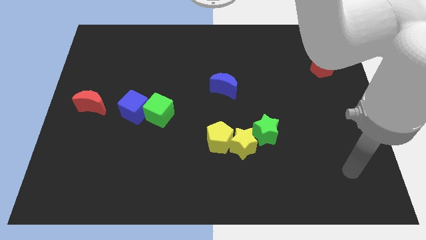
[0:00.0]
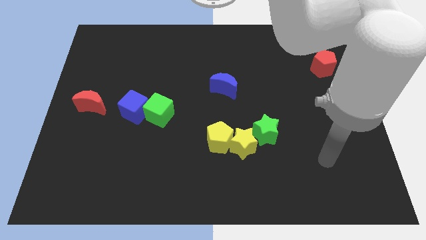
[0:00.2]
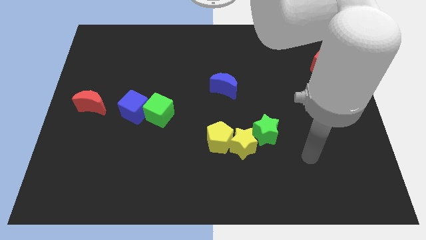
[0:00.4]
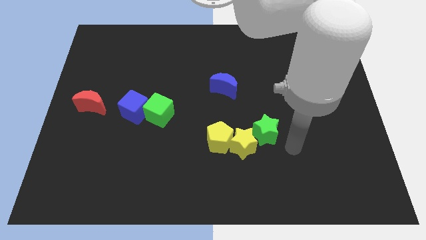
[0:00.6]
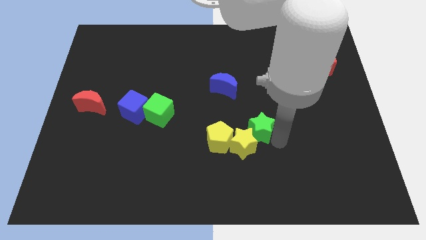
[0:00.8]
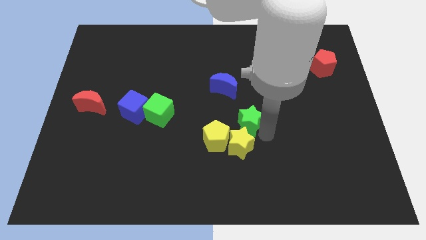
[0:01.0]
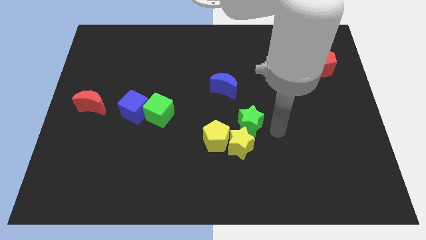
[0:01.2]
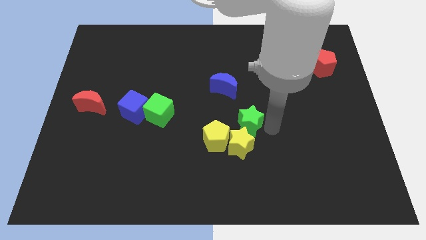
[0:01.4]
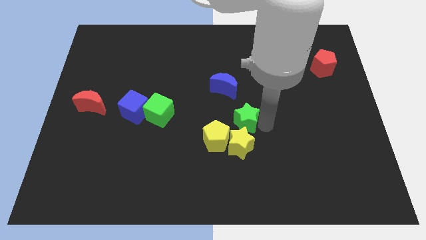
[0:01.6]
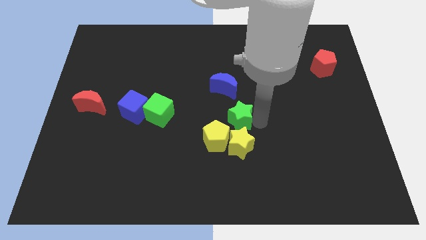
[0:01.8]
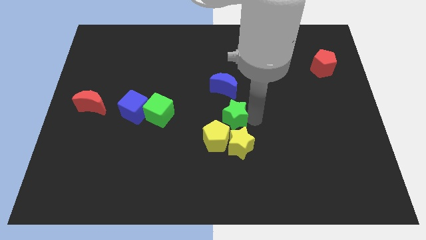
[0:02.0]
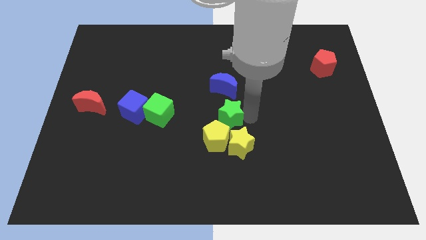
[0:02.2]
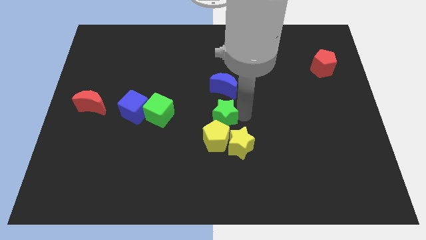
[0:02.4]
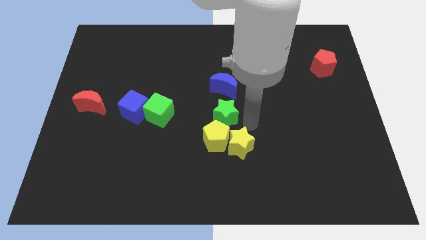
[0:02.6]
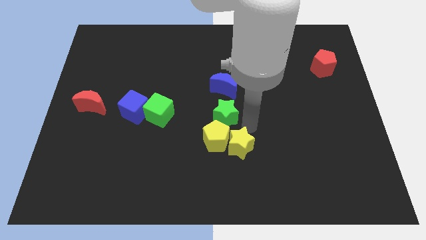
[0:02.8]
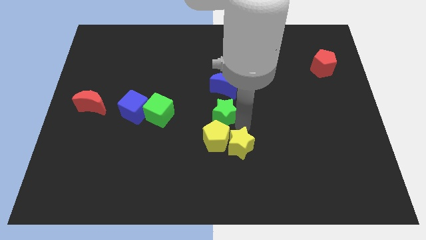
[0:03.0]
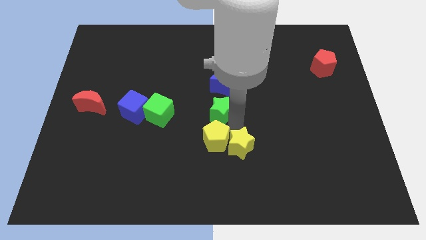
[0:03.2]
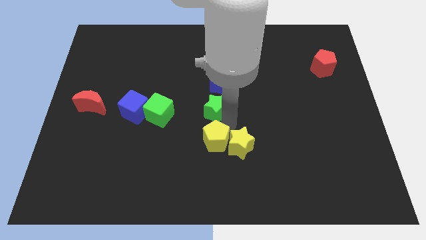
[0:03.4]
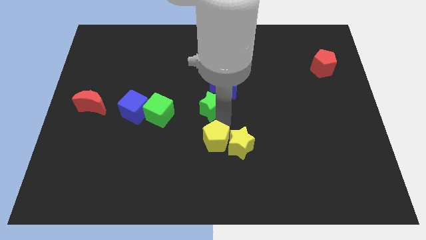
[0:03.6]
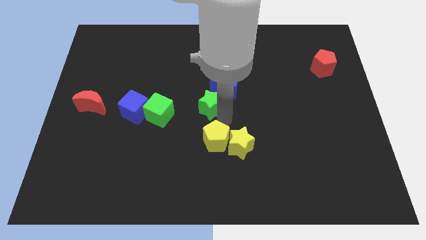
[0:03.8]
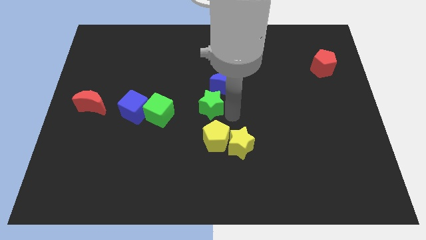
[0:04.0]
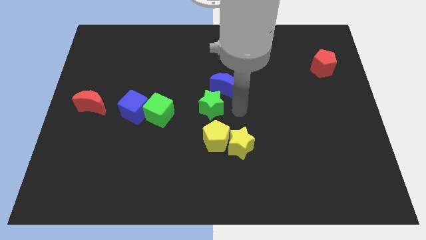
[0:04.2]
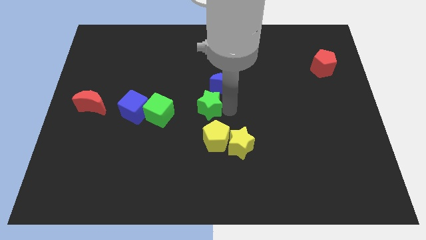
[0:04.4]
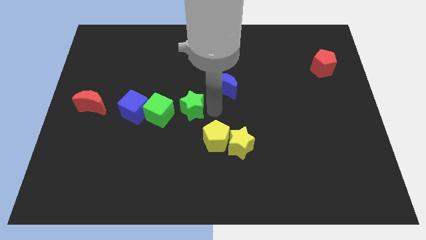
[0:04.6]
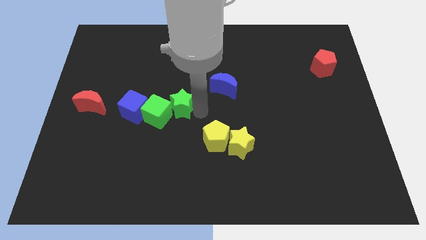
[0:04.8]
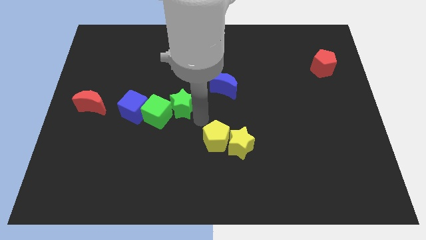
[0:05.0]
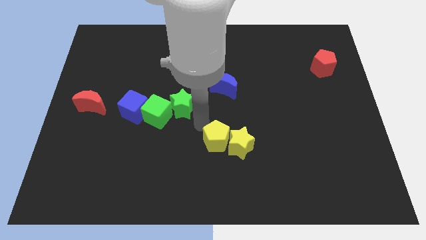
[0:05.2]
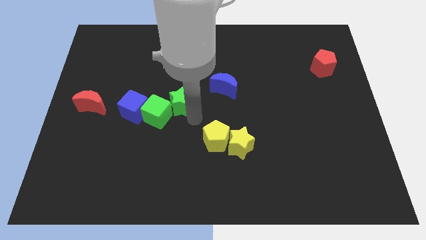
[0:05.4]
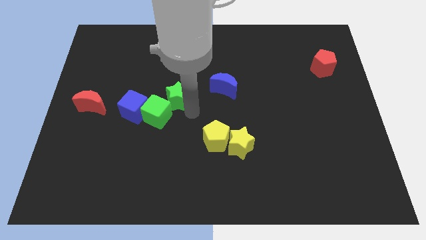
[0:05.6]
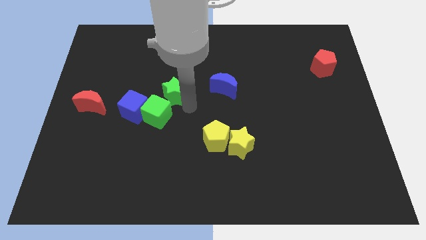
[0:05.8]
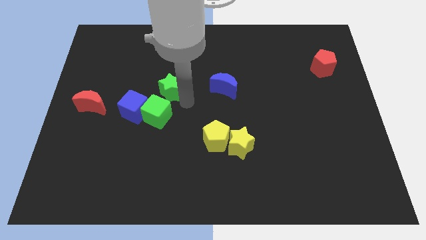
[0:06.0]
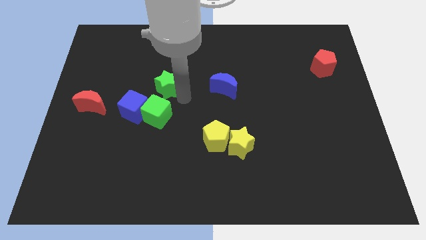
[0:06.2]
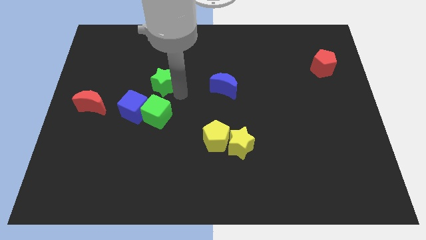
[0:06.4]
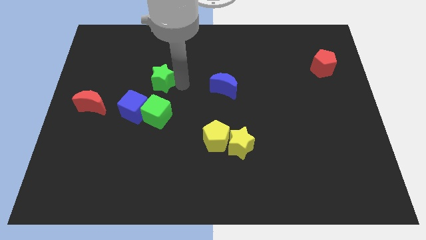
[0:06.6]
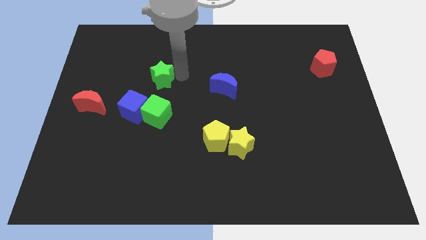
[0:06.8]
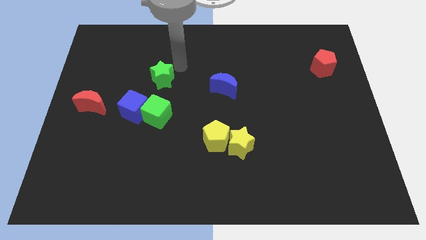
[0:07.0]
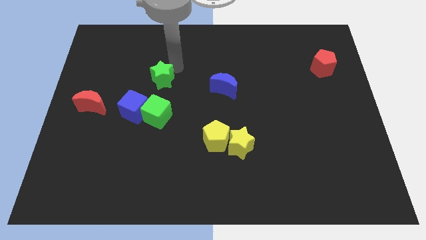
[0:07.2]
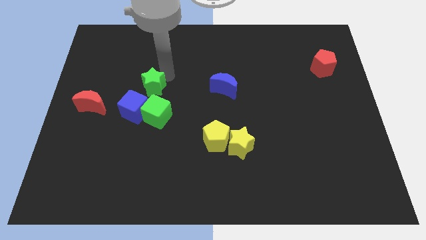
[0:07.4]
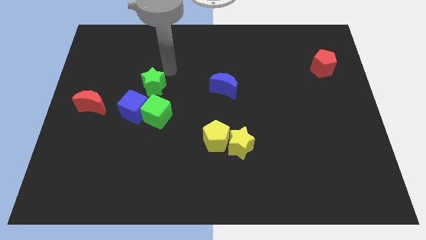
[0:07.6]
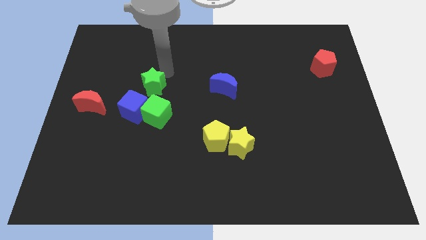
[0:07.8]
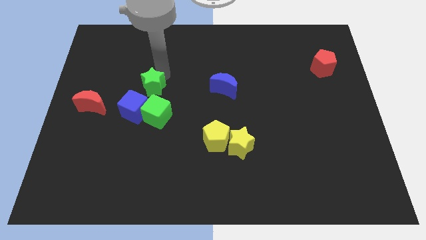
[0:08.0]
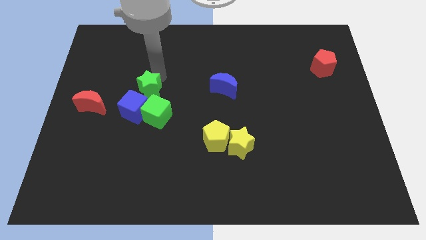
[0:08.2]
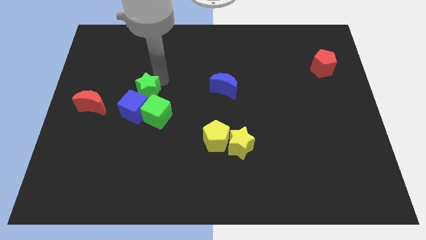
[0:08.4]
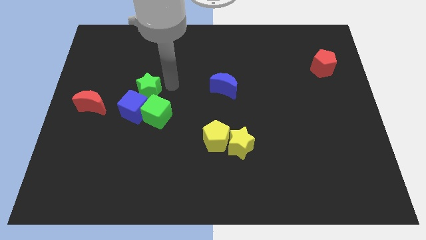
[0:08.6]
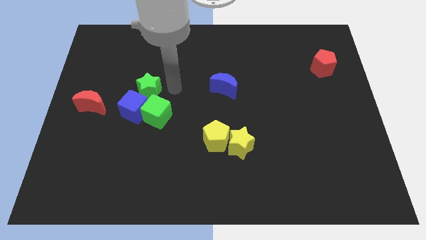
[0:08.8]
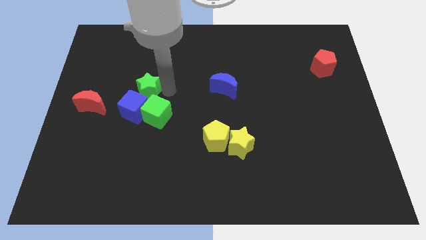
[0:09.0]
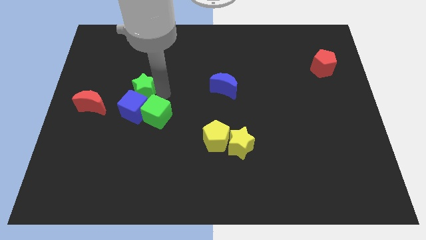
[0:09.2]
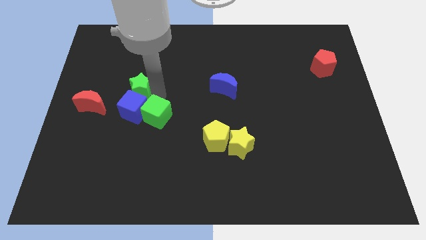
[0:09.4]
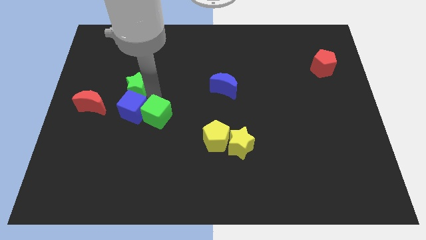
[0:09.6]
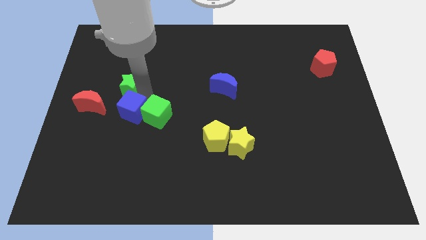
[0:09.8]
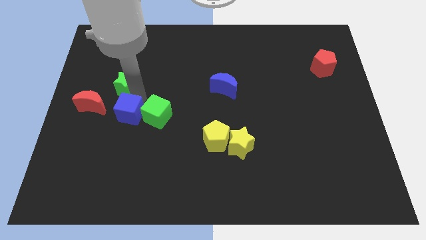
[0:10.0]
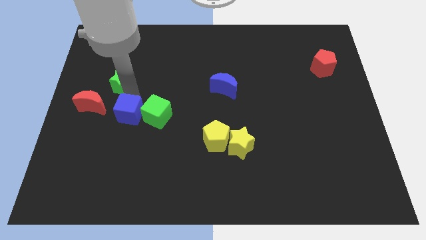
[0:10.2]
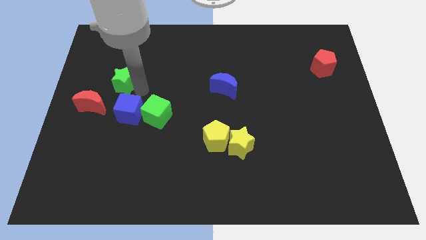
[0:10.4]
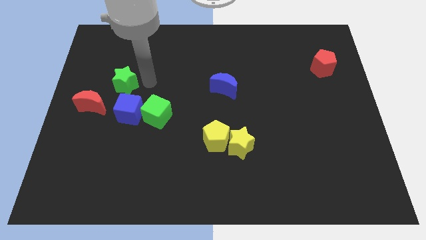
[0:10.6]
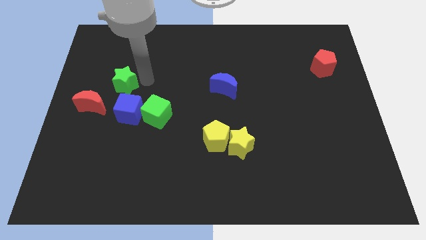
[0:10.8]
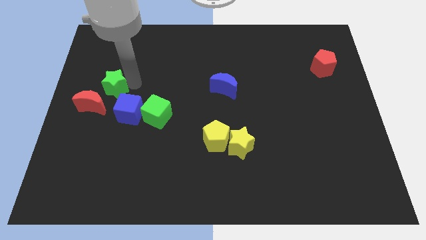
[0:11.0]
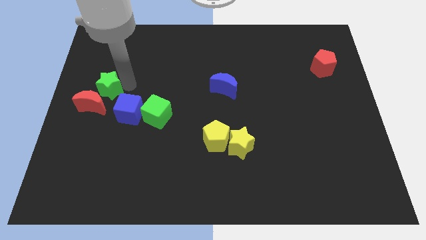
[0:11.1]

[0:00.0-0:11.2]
move the green star to the left side

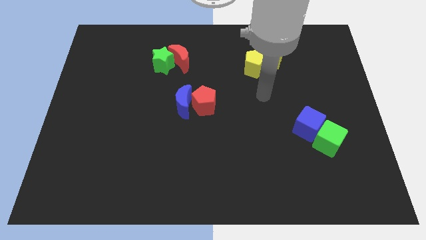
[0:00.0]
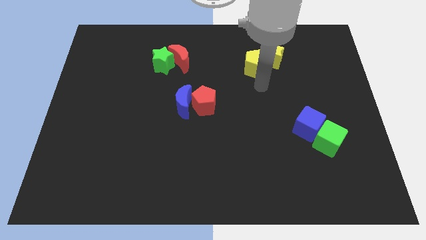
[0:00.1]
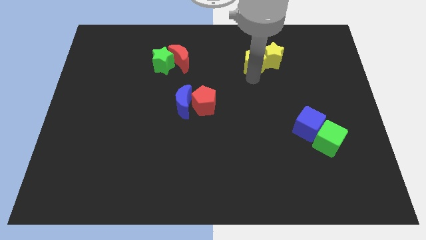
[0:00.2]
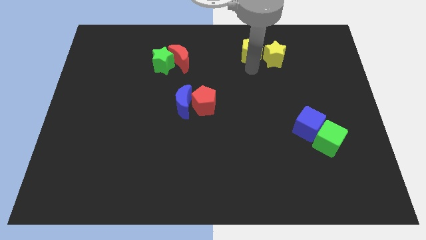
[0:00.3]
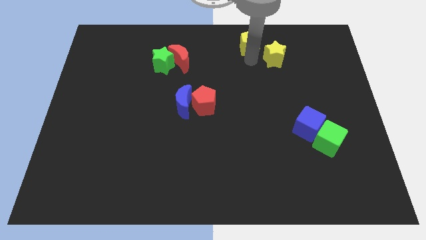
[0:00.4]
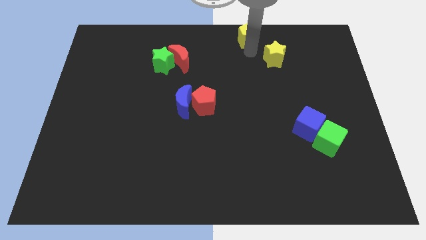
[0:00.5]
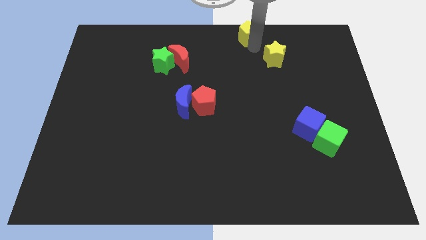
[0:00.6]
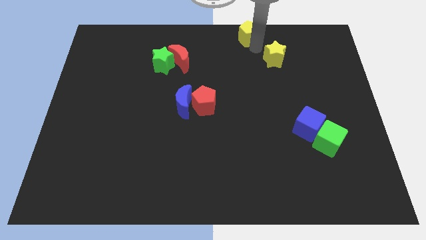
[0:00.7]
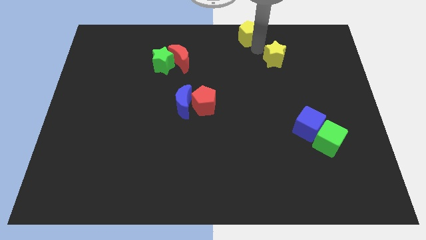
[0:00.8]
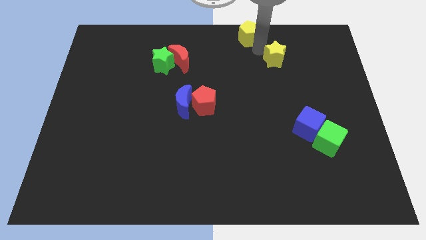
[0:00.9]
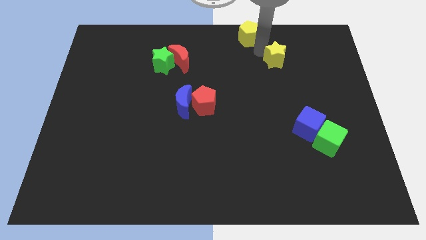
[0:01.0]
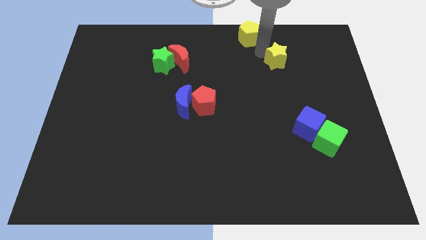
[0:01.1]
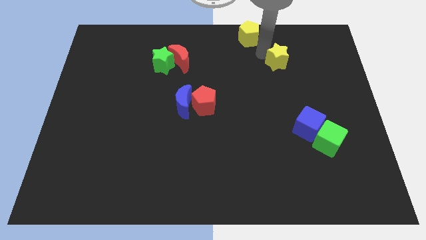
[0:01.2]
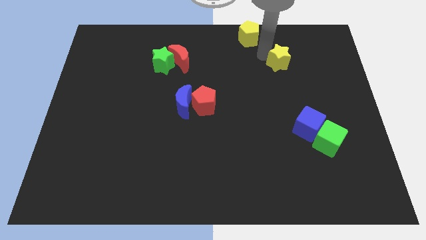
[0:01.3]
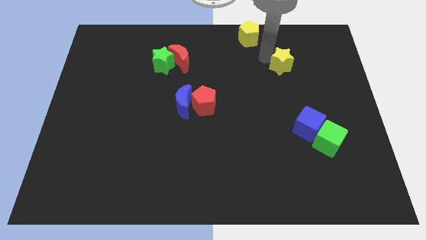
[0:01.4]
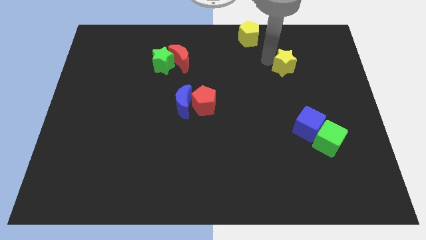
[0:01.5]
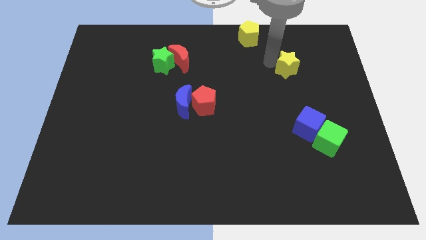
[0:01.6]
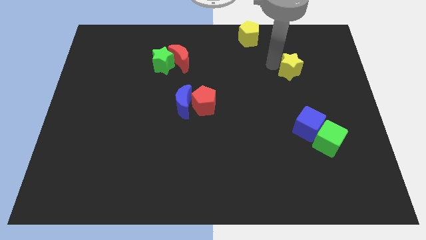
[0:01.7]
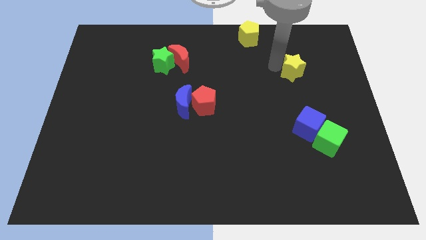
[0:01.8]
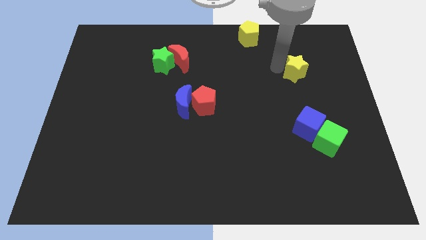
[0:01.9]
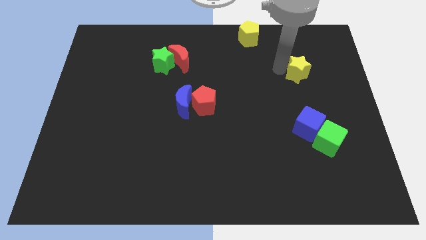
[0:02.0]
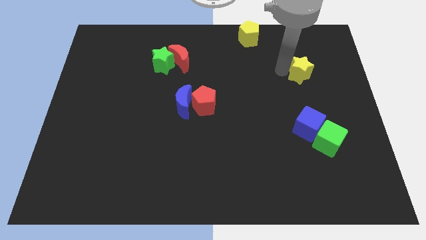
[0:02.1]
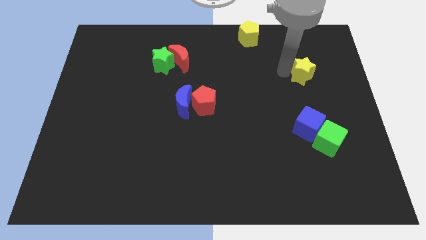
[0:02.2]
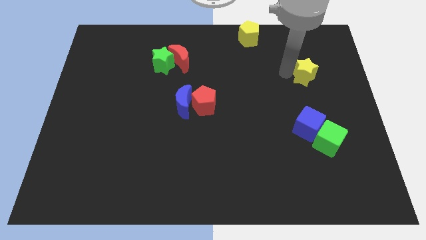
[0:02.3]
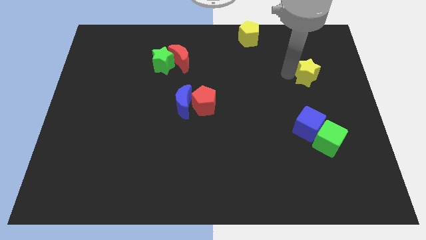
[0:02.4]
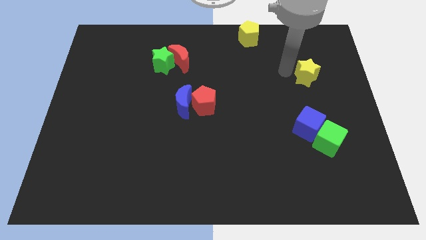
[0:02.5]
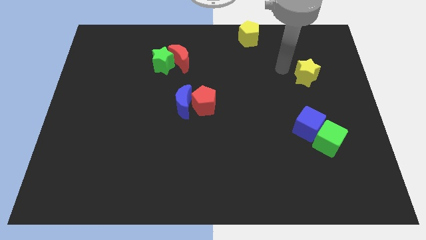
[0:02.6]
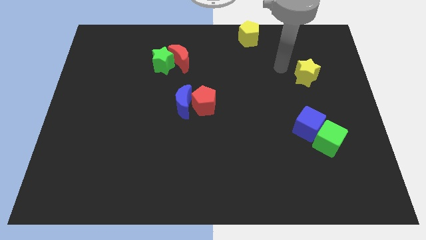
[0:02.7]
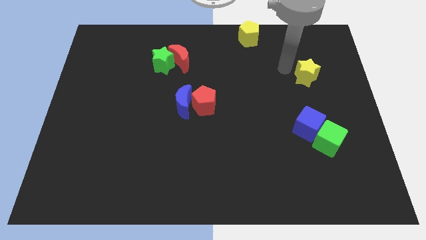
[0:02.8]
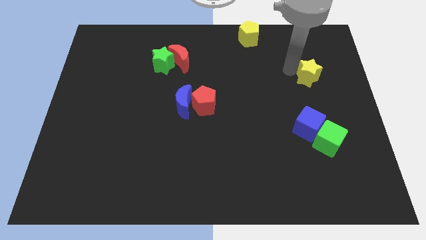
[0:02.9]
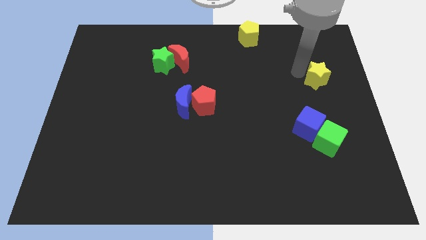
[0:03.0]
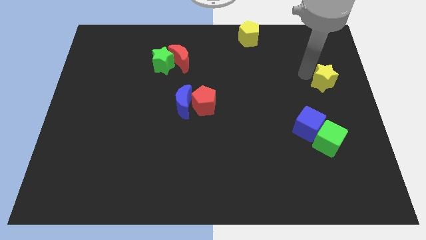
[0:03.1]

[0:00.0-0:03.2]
slide the yellow star to the right side
